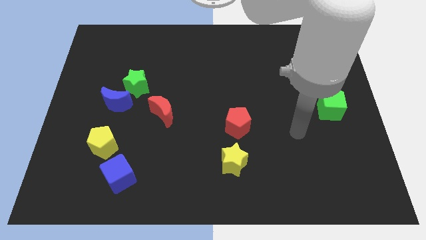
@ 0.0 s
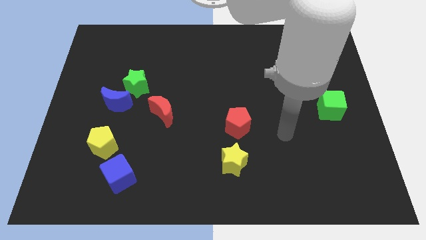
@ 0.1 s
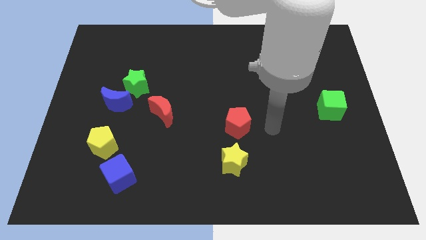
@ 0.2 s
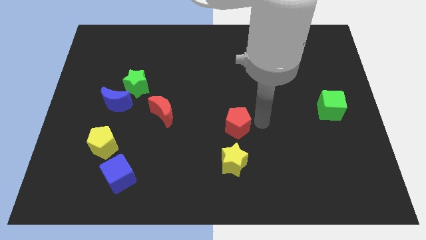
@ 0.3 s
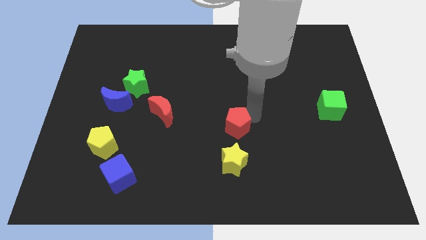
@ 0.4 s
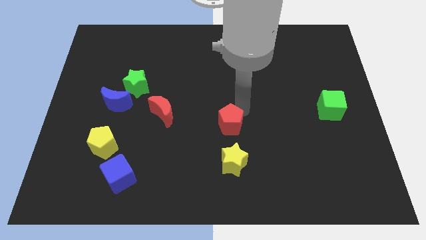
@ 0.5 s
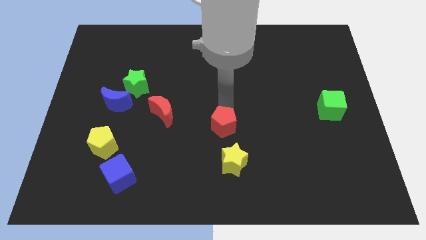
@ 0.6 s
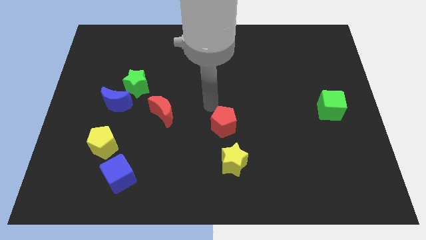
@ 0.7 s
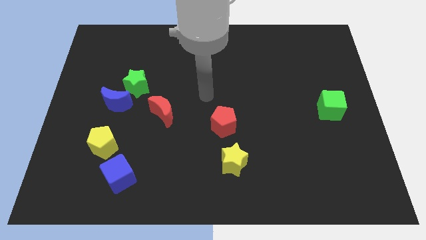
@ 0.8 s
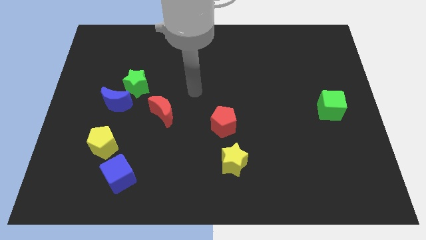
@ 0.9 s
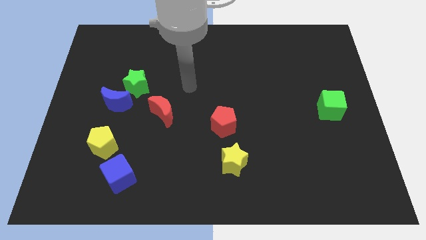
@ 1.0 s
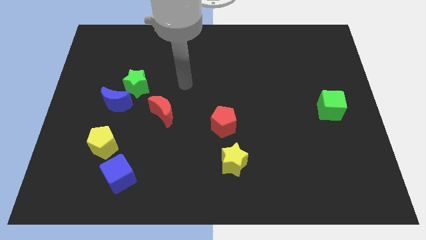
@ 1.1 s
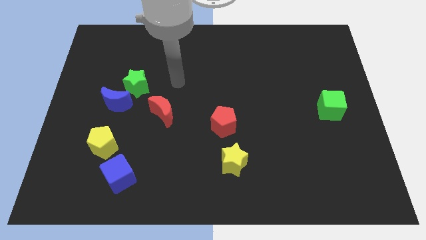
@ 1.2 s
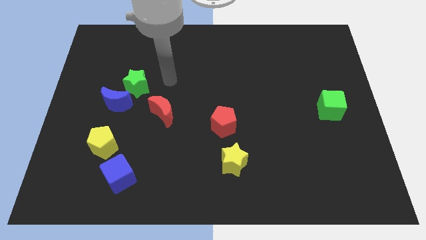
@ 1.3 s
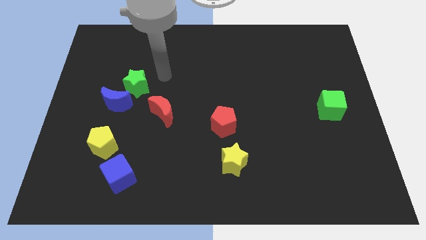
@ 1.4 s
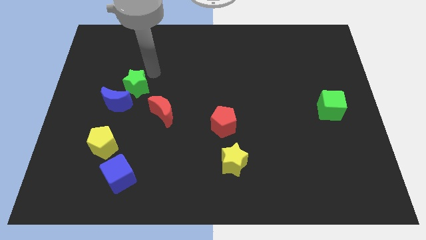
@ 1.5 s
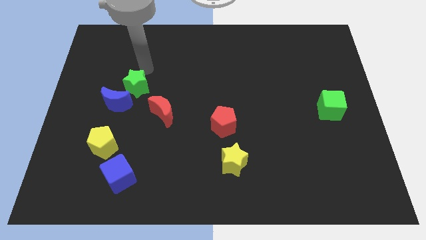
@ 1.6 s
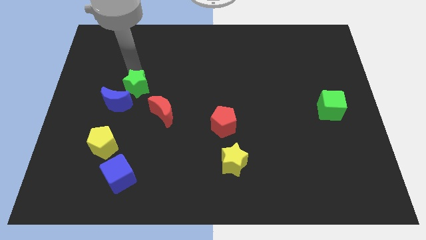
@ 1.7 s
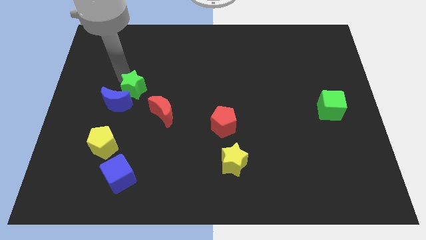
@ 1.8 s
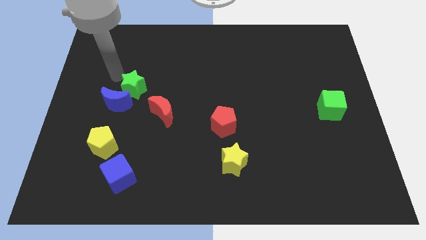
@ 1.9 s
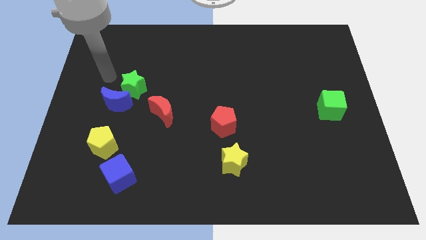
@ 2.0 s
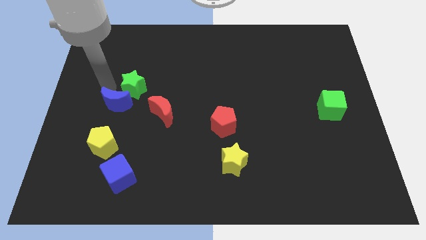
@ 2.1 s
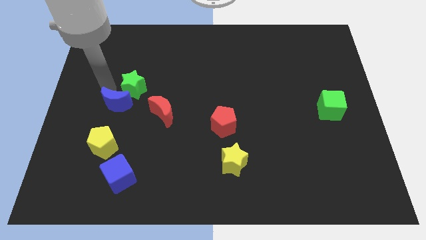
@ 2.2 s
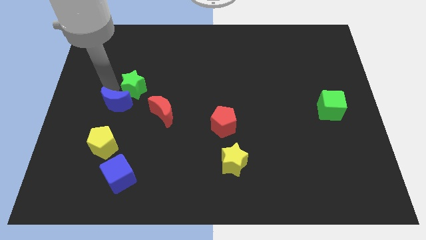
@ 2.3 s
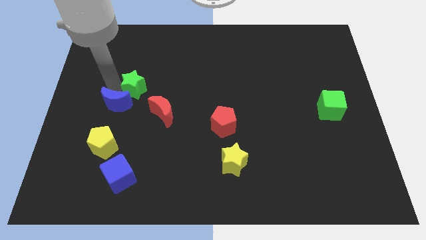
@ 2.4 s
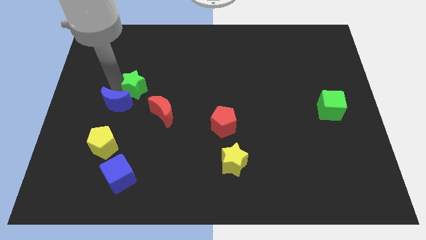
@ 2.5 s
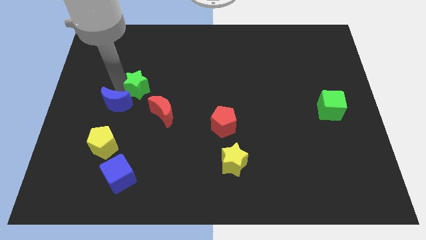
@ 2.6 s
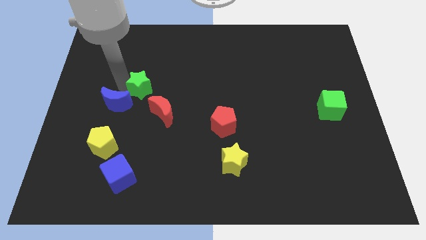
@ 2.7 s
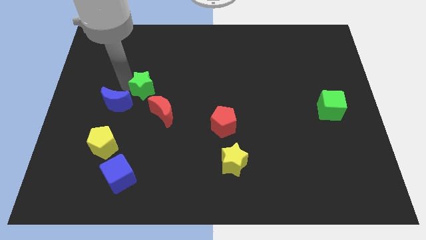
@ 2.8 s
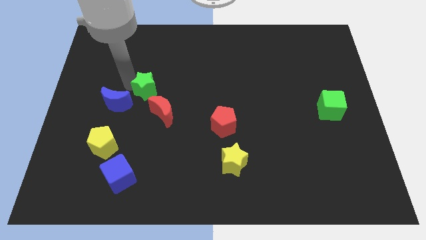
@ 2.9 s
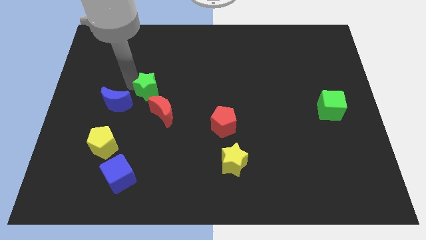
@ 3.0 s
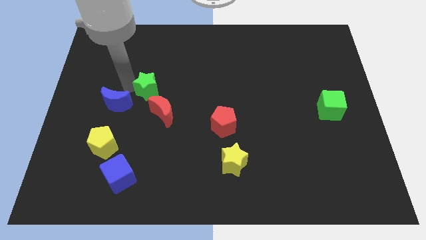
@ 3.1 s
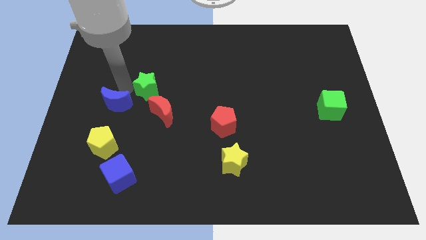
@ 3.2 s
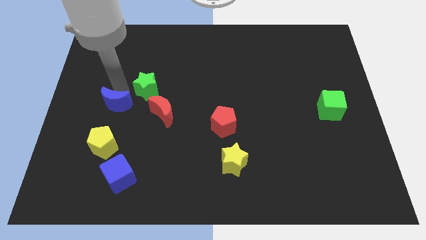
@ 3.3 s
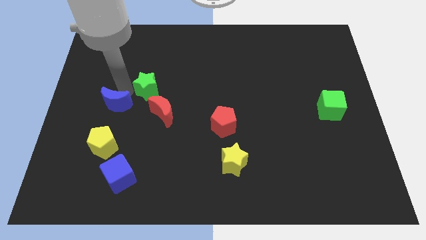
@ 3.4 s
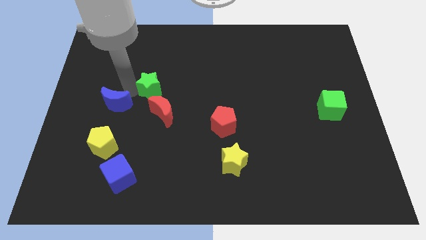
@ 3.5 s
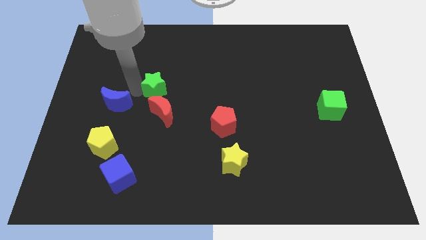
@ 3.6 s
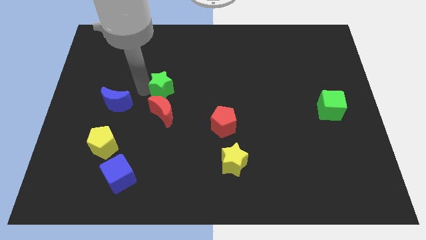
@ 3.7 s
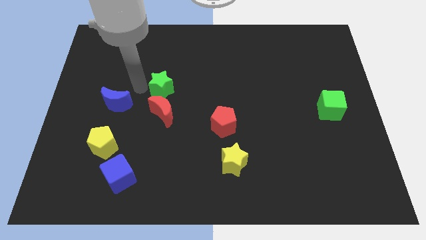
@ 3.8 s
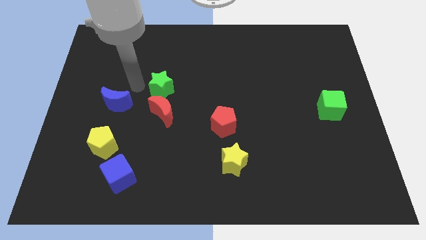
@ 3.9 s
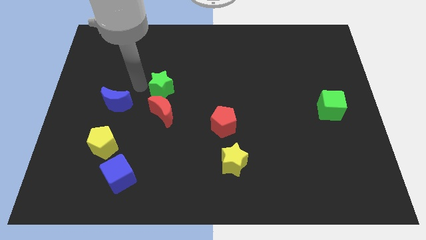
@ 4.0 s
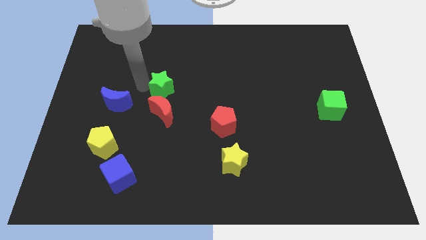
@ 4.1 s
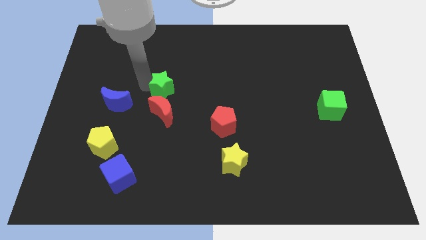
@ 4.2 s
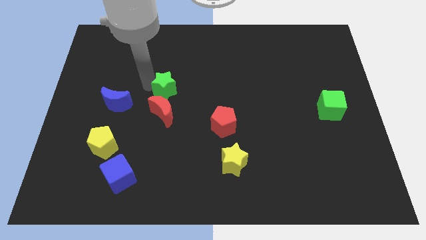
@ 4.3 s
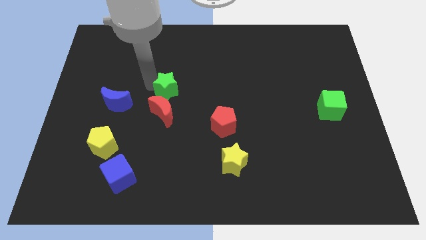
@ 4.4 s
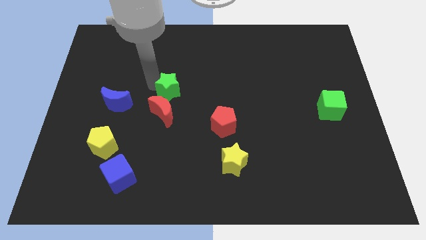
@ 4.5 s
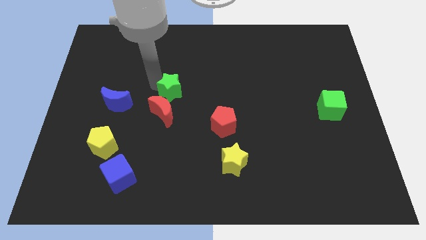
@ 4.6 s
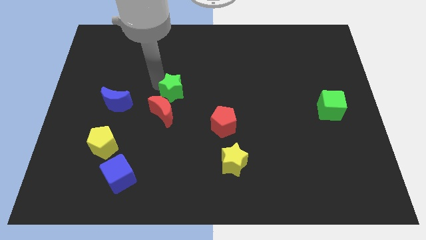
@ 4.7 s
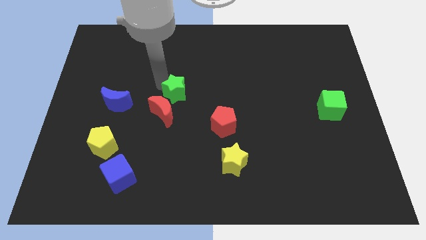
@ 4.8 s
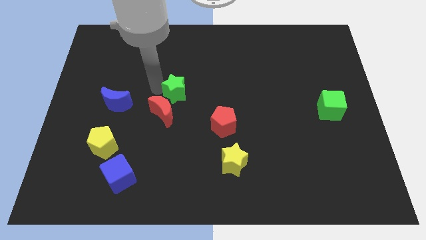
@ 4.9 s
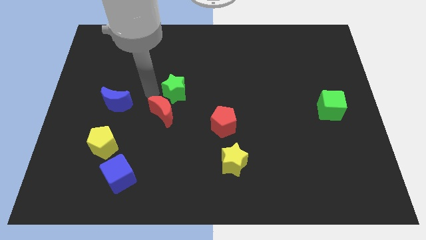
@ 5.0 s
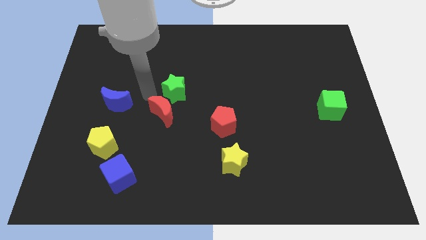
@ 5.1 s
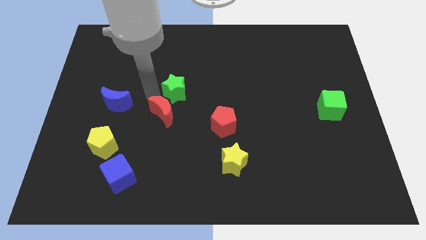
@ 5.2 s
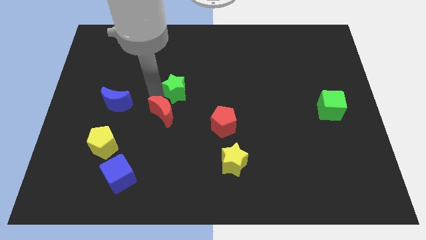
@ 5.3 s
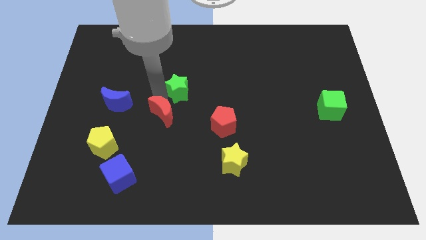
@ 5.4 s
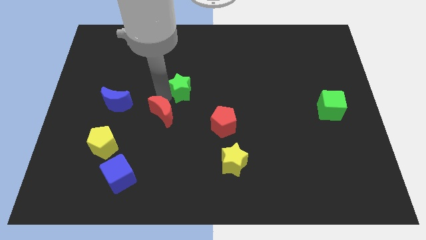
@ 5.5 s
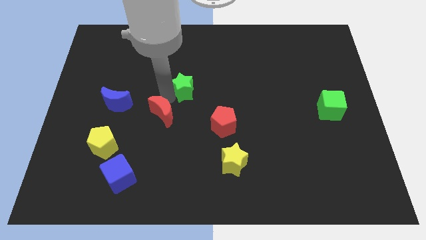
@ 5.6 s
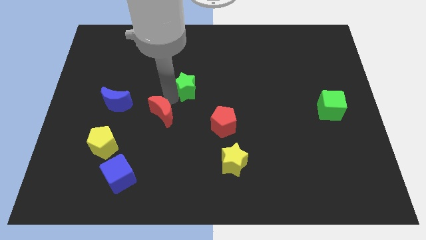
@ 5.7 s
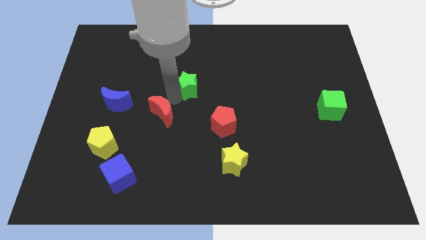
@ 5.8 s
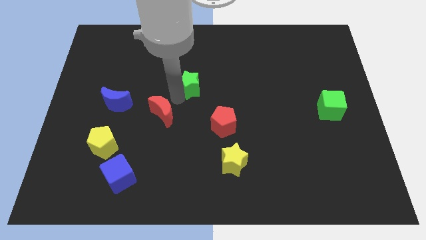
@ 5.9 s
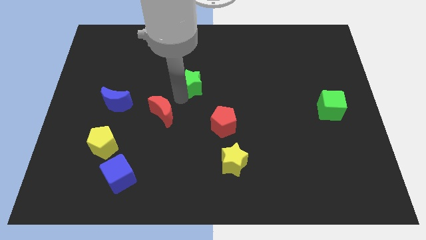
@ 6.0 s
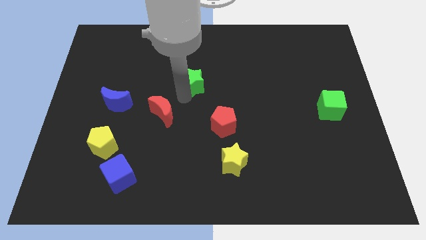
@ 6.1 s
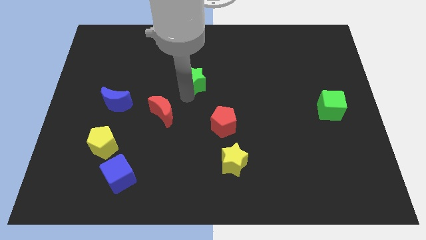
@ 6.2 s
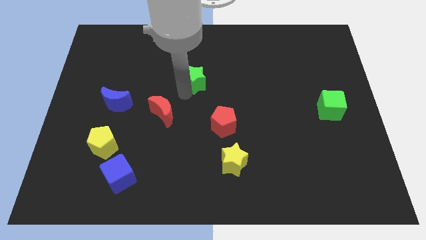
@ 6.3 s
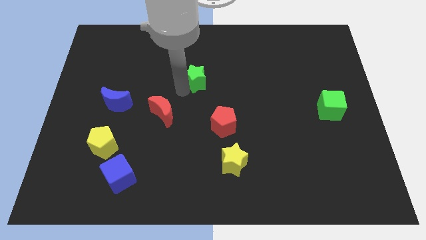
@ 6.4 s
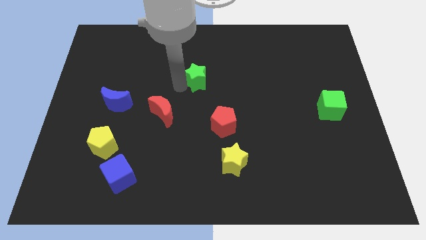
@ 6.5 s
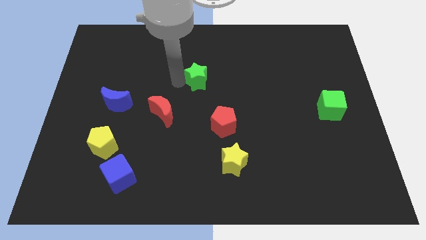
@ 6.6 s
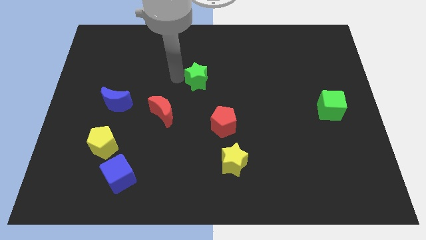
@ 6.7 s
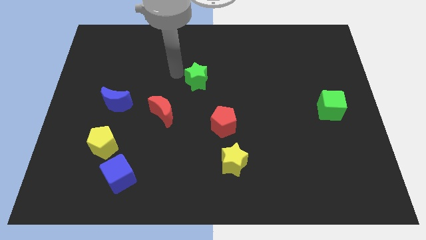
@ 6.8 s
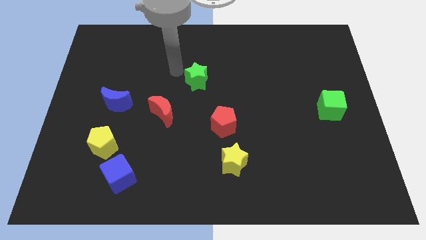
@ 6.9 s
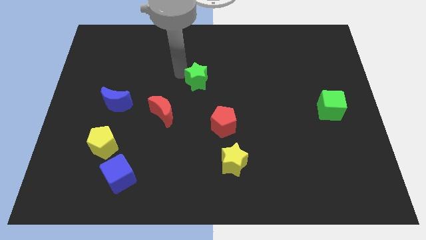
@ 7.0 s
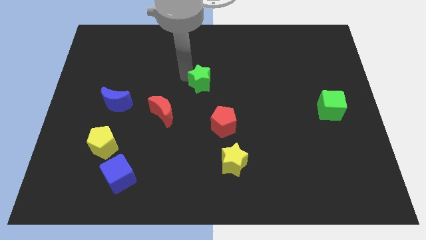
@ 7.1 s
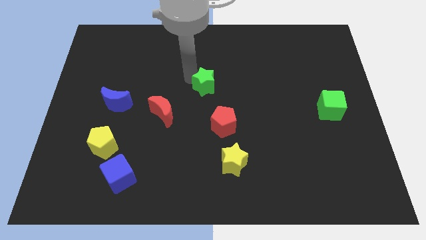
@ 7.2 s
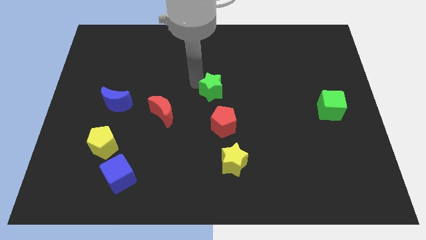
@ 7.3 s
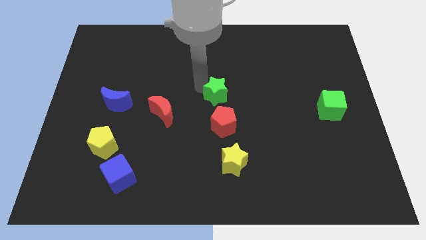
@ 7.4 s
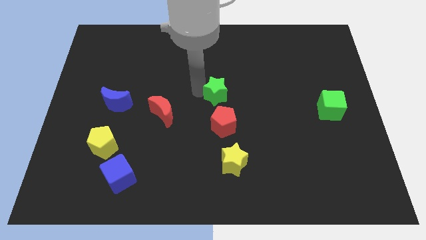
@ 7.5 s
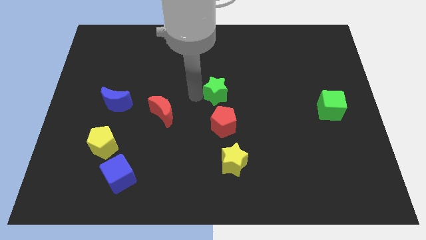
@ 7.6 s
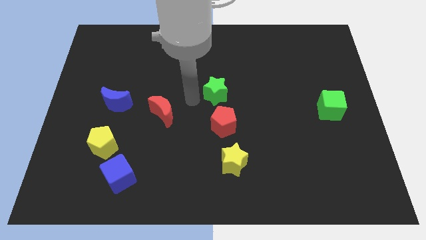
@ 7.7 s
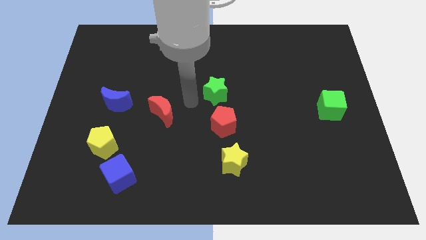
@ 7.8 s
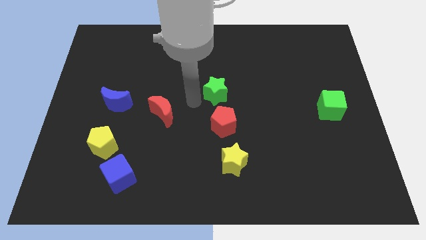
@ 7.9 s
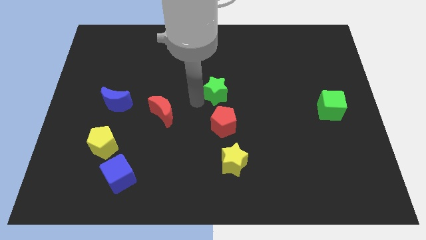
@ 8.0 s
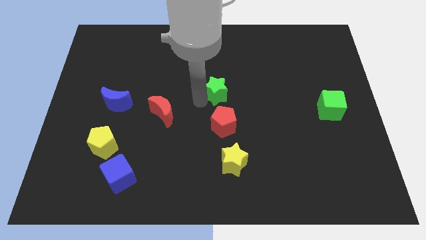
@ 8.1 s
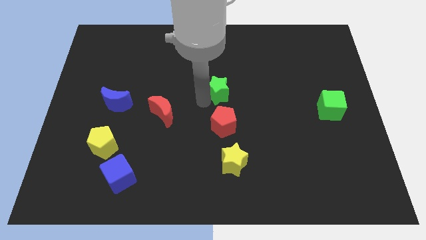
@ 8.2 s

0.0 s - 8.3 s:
push the green star to the right
